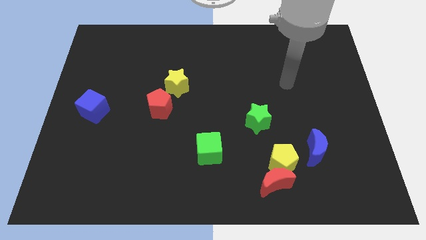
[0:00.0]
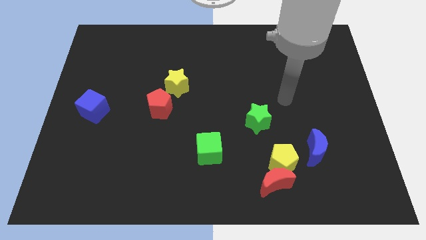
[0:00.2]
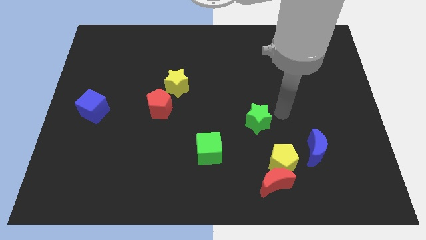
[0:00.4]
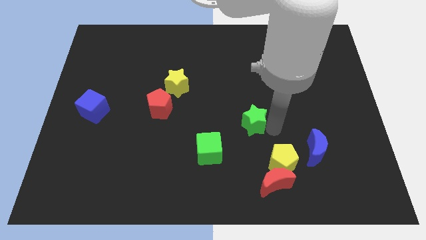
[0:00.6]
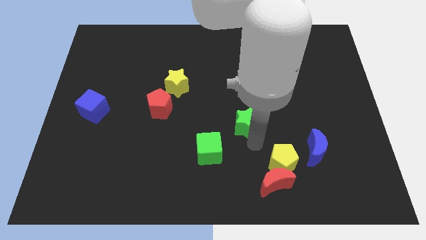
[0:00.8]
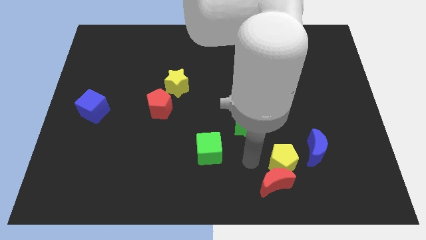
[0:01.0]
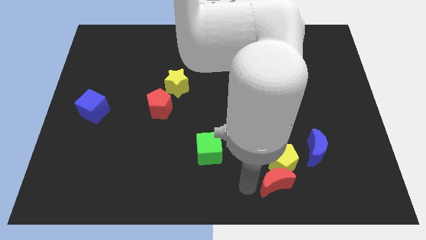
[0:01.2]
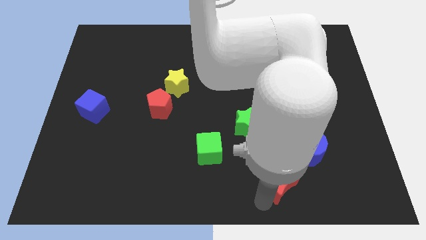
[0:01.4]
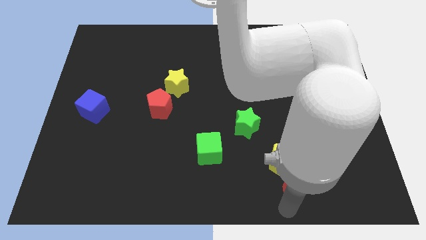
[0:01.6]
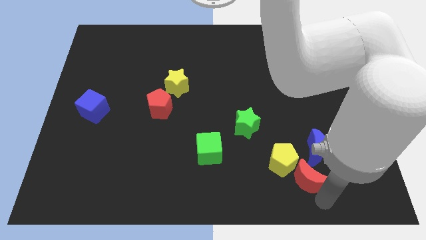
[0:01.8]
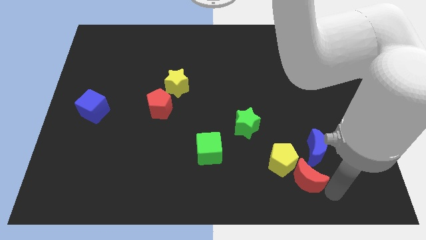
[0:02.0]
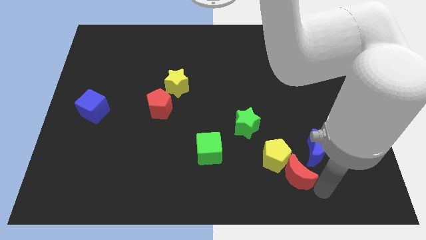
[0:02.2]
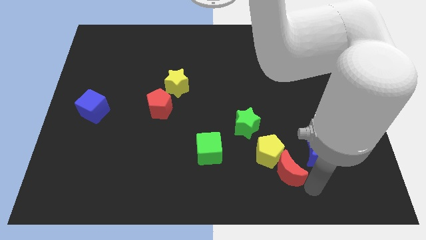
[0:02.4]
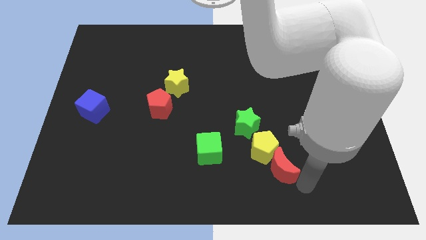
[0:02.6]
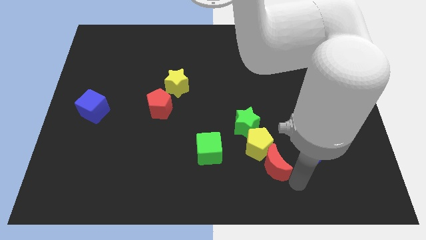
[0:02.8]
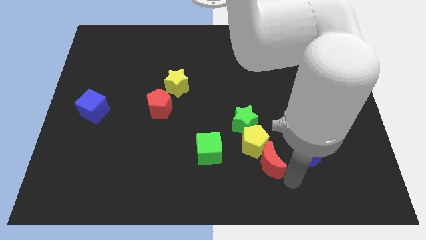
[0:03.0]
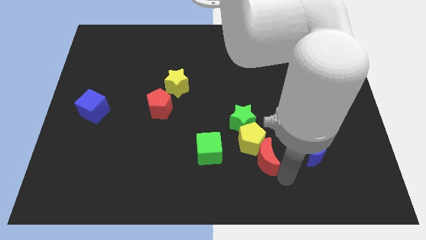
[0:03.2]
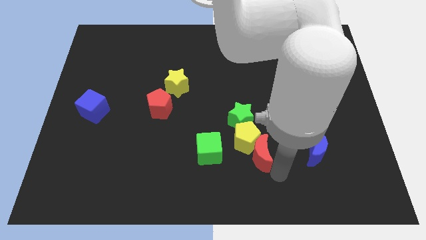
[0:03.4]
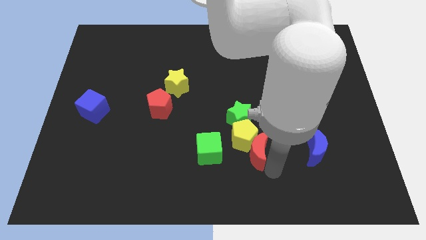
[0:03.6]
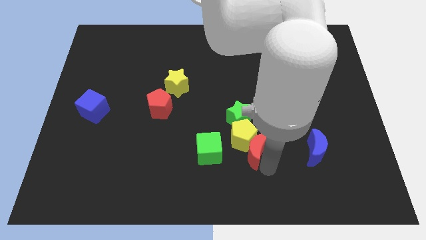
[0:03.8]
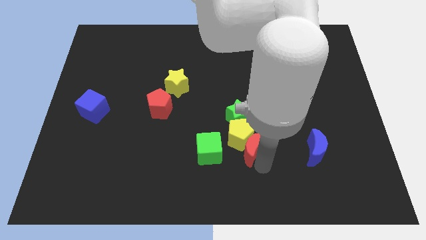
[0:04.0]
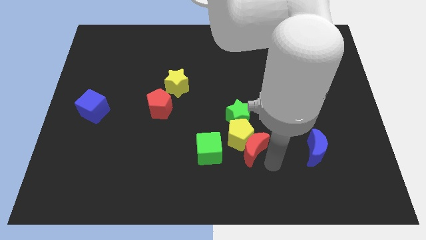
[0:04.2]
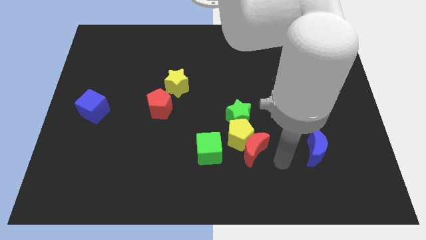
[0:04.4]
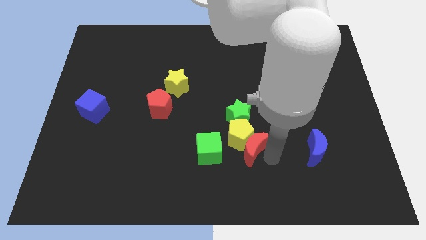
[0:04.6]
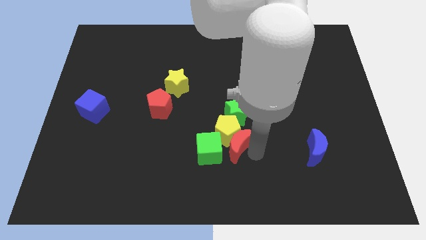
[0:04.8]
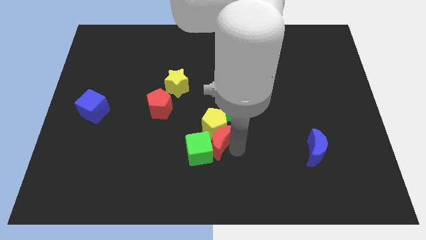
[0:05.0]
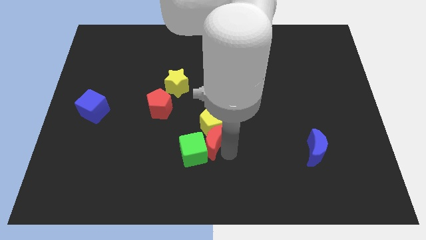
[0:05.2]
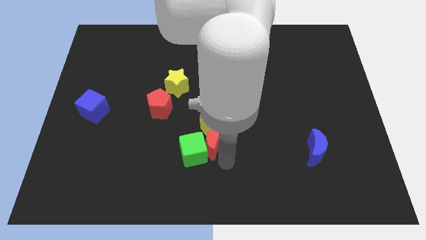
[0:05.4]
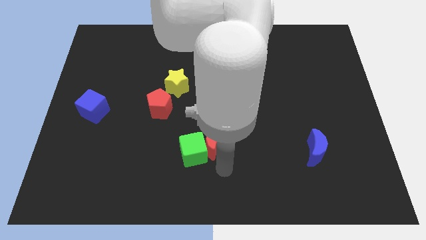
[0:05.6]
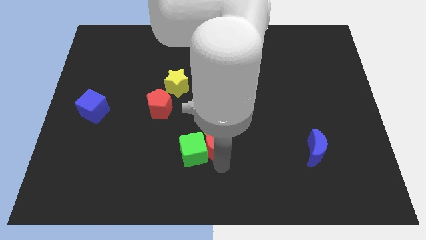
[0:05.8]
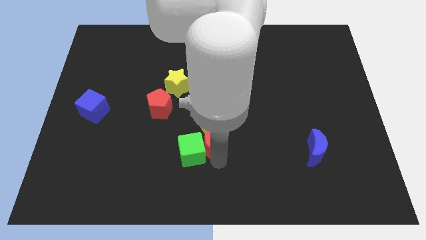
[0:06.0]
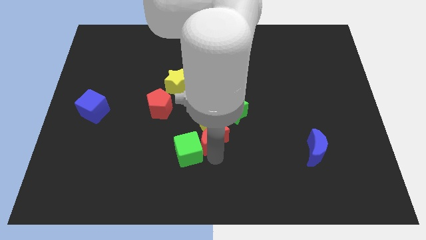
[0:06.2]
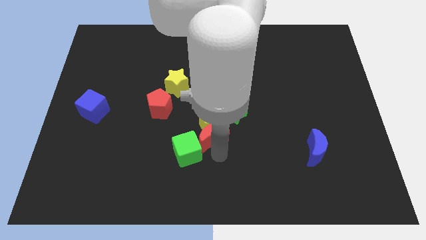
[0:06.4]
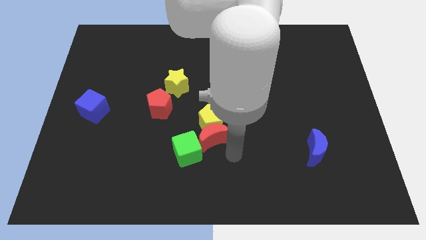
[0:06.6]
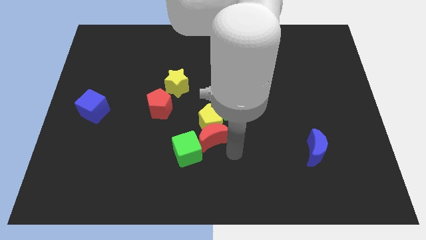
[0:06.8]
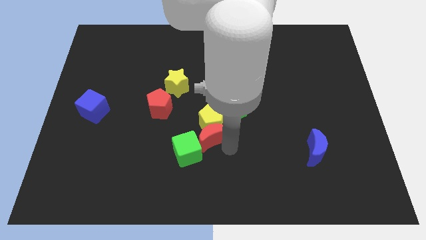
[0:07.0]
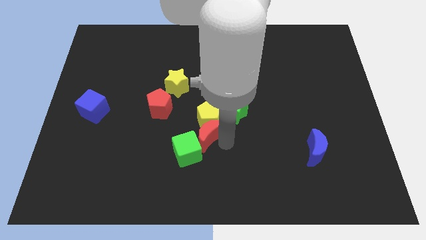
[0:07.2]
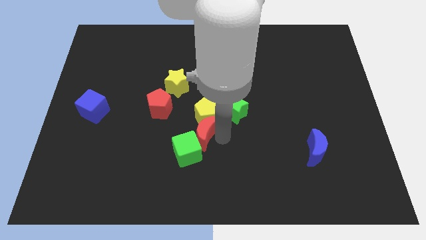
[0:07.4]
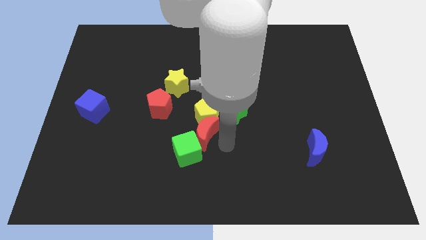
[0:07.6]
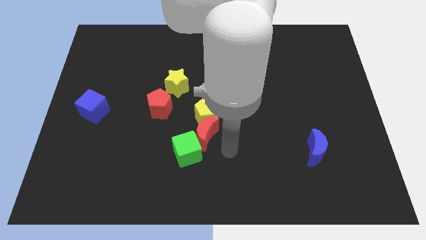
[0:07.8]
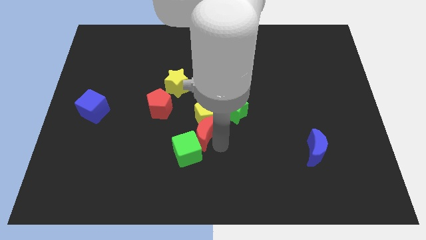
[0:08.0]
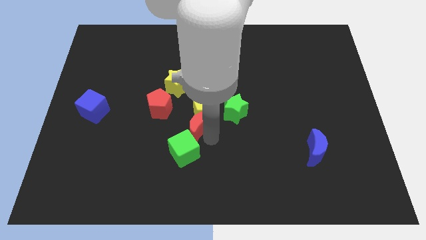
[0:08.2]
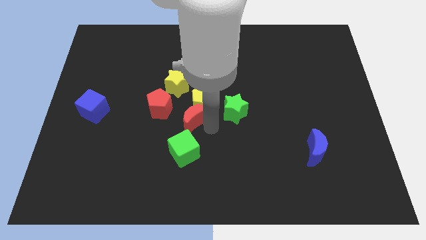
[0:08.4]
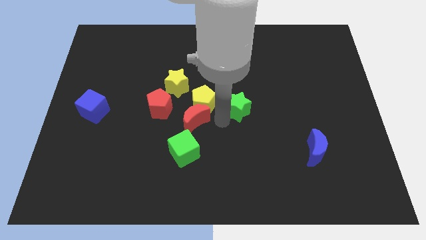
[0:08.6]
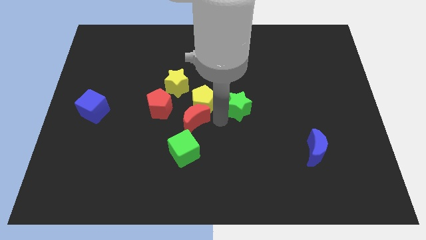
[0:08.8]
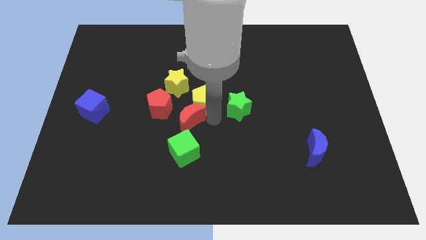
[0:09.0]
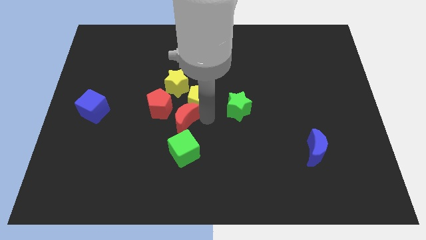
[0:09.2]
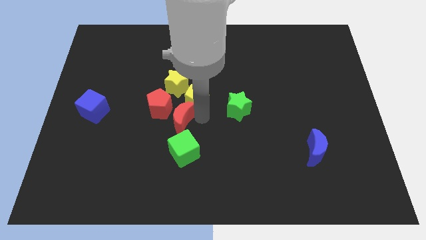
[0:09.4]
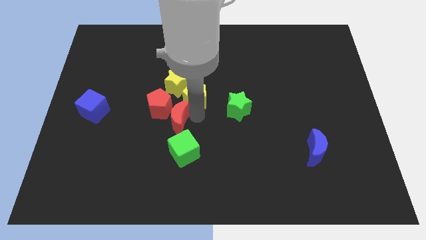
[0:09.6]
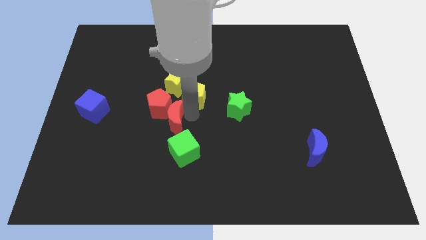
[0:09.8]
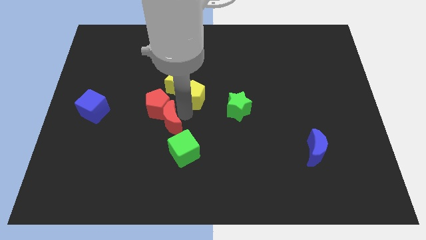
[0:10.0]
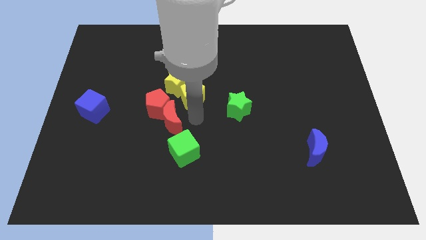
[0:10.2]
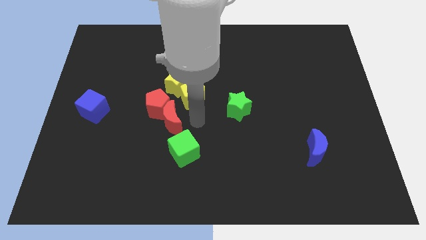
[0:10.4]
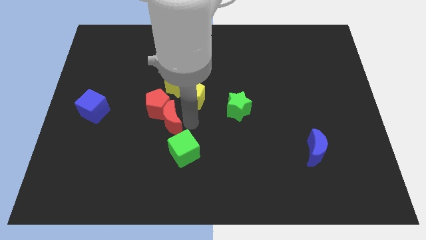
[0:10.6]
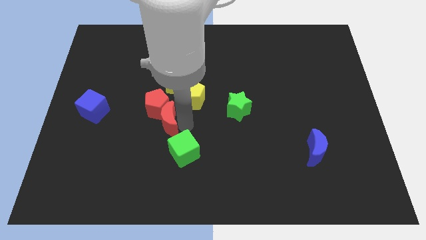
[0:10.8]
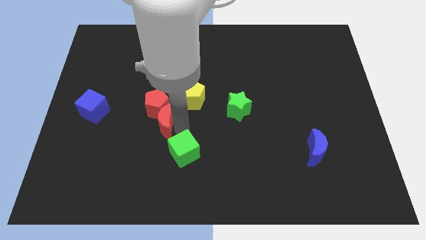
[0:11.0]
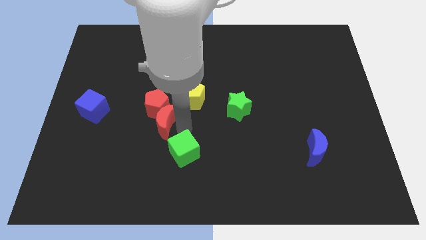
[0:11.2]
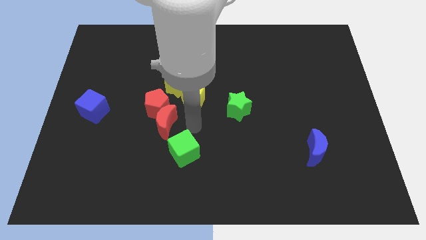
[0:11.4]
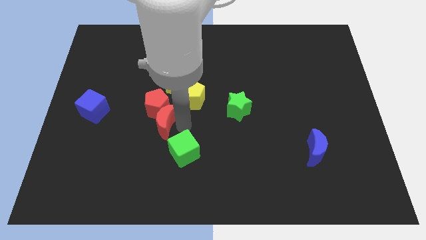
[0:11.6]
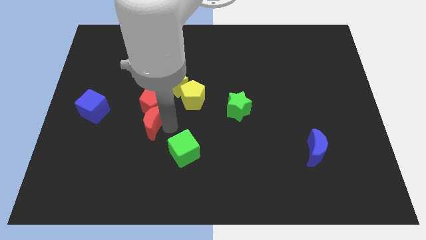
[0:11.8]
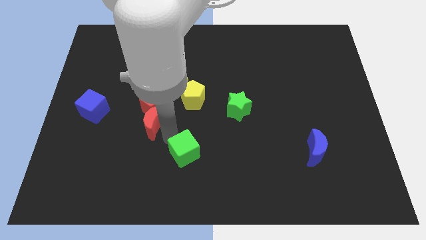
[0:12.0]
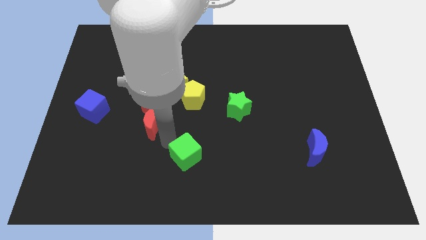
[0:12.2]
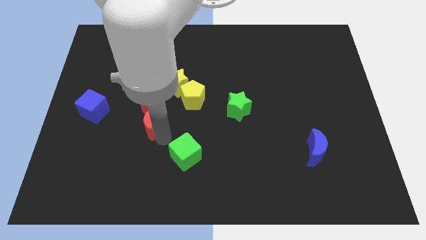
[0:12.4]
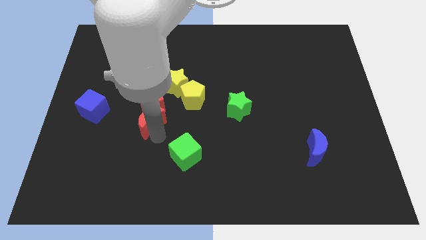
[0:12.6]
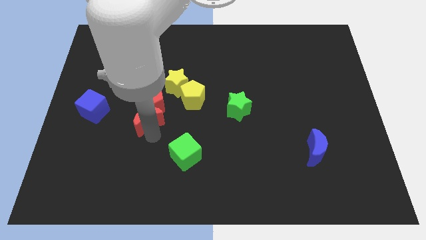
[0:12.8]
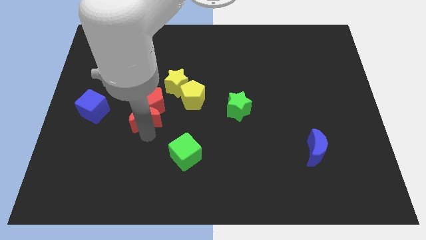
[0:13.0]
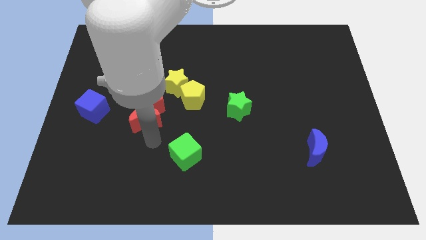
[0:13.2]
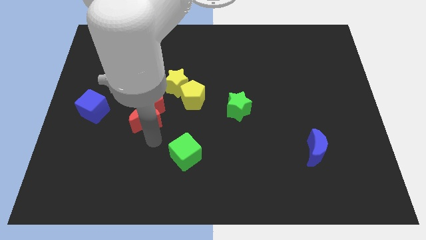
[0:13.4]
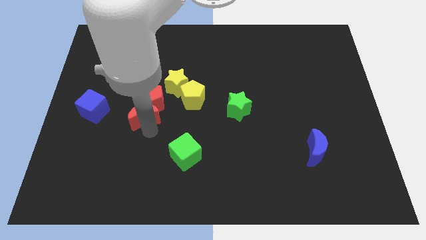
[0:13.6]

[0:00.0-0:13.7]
put the red moon diagonally down and to the left of the yellow star

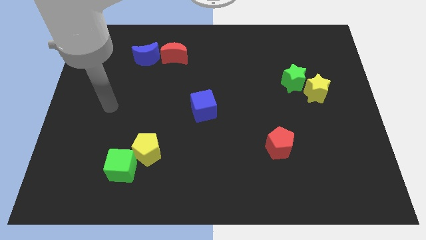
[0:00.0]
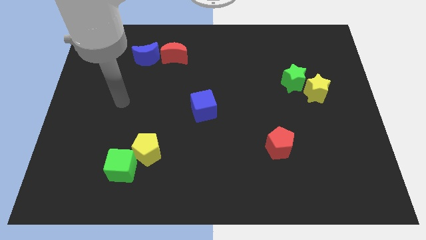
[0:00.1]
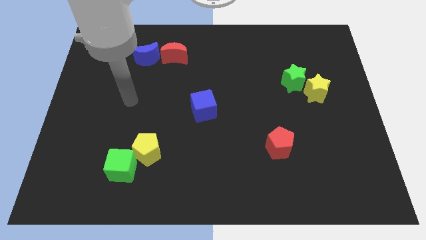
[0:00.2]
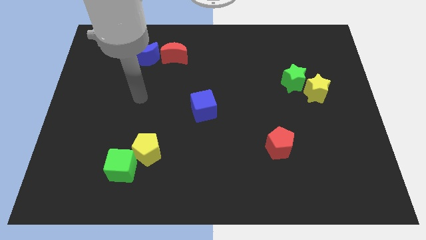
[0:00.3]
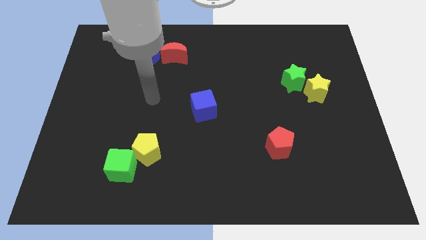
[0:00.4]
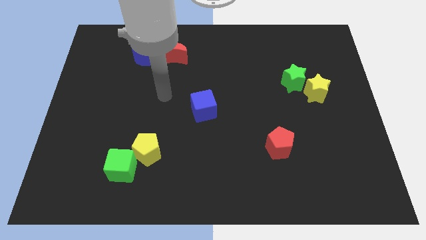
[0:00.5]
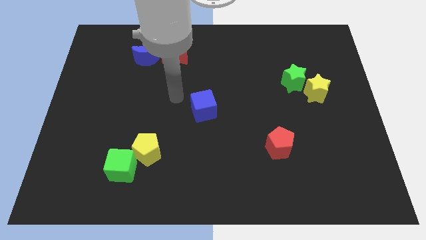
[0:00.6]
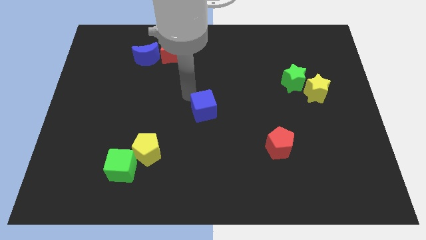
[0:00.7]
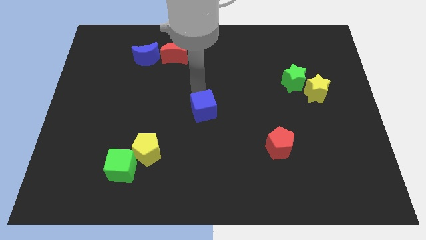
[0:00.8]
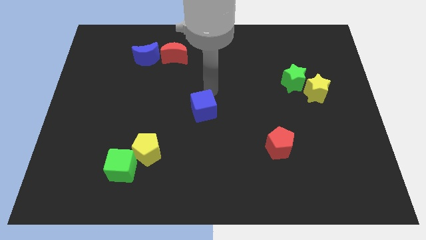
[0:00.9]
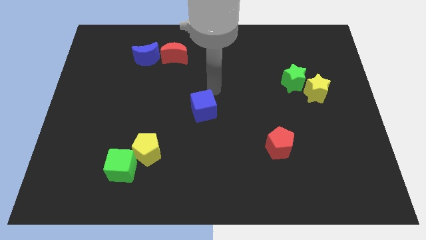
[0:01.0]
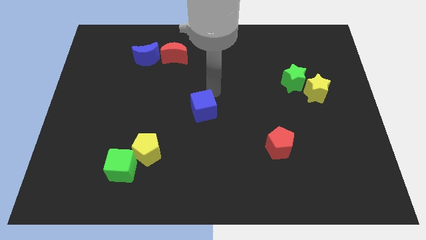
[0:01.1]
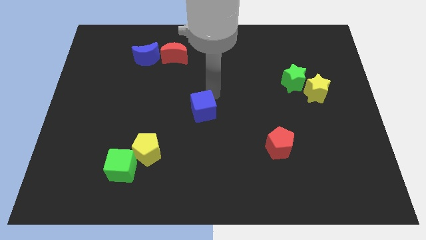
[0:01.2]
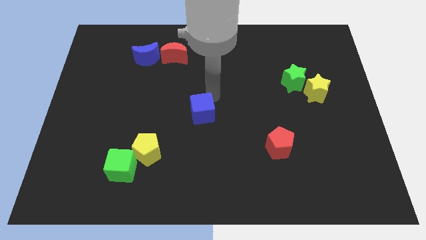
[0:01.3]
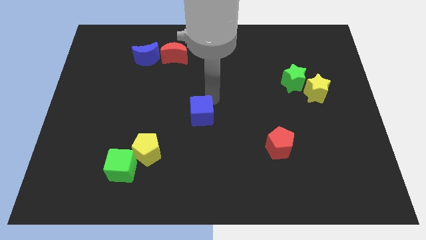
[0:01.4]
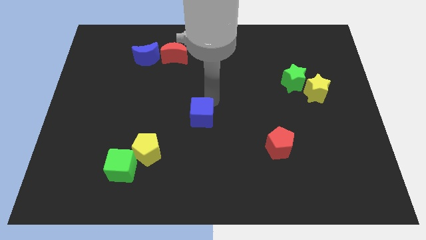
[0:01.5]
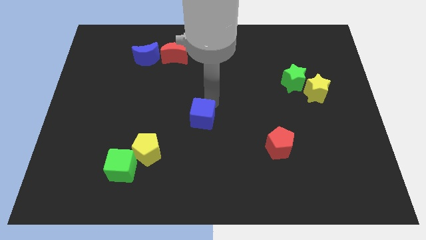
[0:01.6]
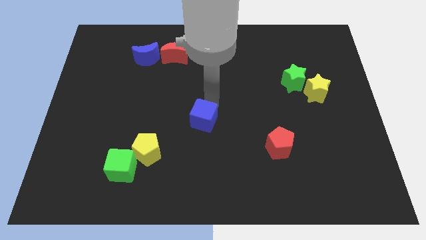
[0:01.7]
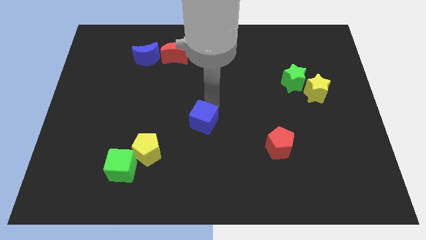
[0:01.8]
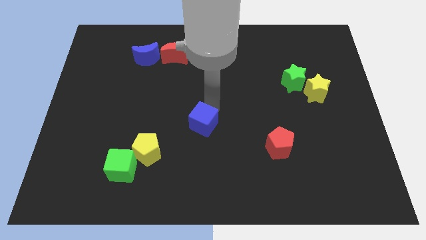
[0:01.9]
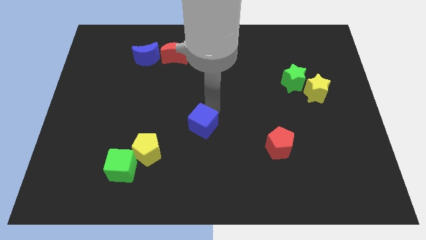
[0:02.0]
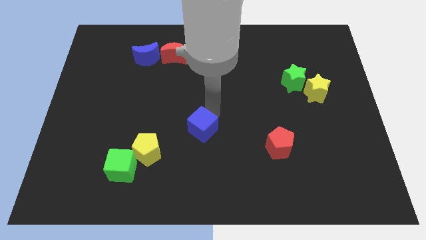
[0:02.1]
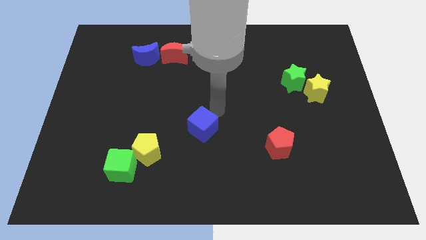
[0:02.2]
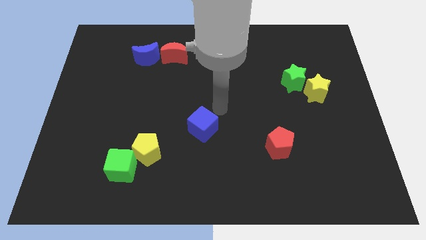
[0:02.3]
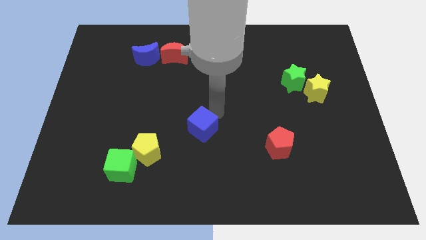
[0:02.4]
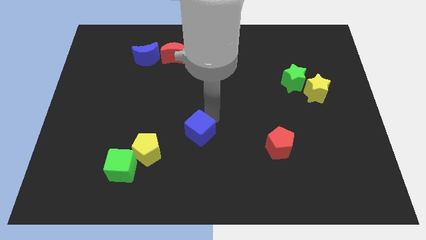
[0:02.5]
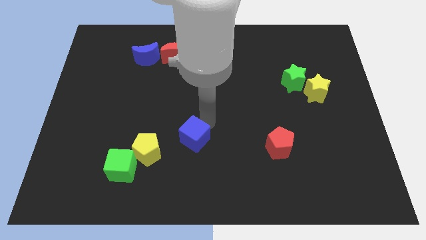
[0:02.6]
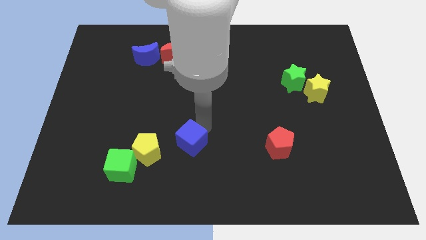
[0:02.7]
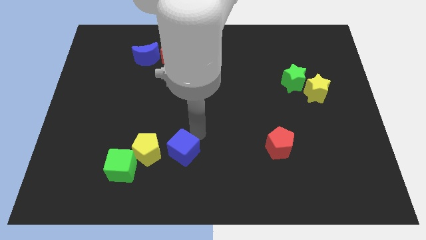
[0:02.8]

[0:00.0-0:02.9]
slide the blue cube to the right side of the green cube
